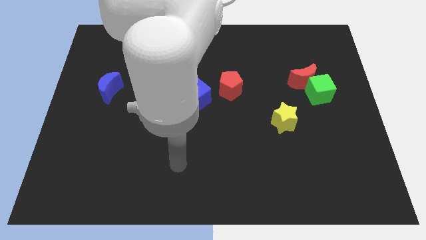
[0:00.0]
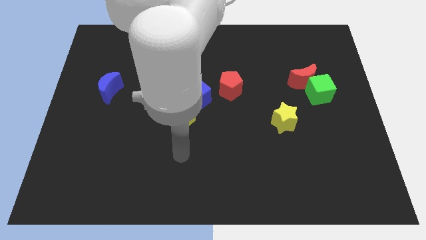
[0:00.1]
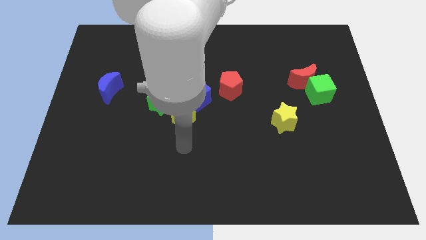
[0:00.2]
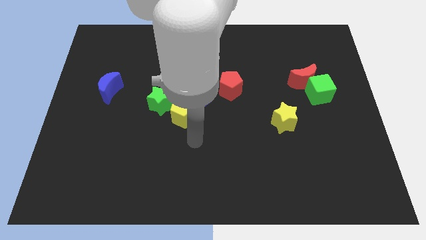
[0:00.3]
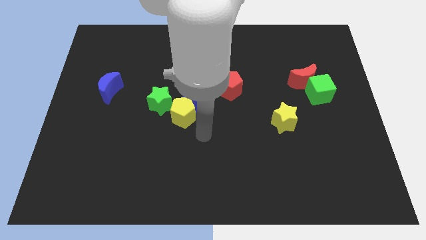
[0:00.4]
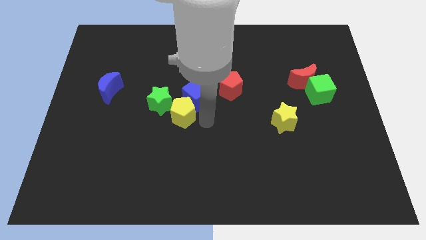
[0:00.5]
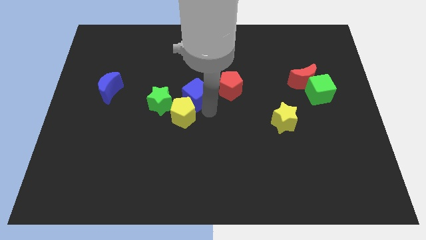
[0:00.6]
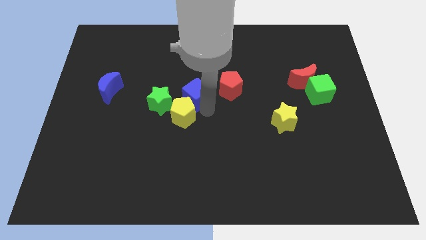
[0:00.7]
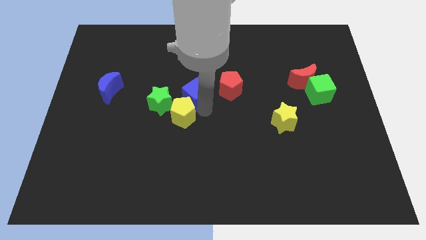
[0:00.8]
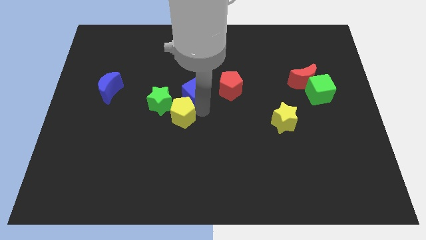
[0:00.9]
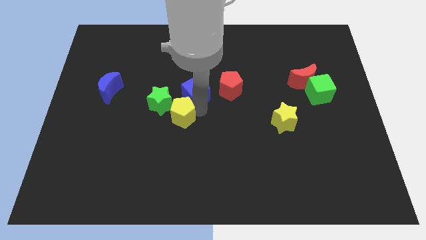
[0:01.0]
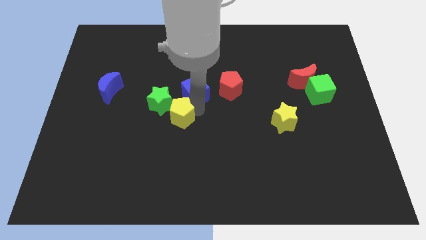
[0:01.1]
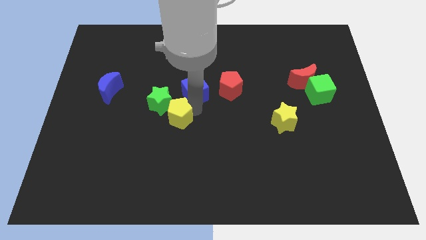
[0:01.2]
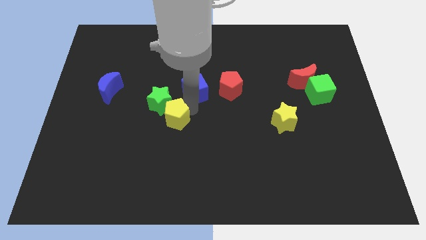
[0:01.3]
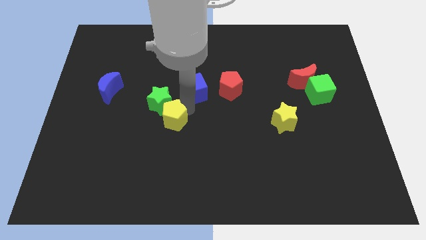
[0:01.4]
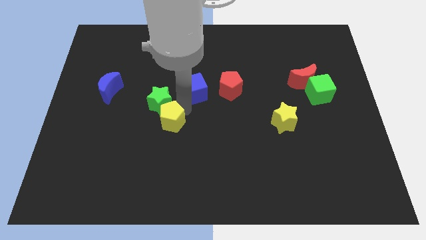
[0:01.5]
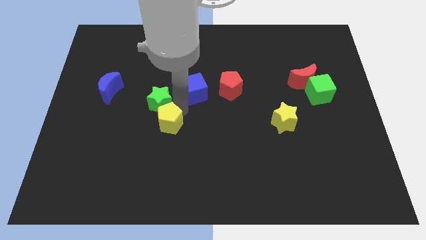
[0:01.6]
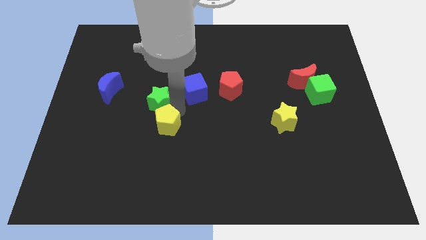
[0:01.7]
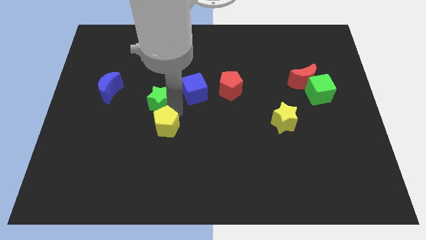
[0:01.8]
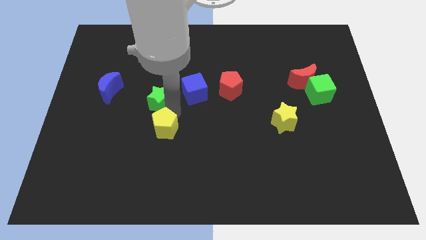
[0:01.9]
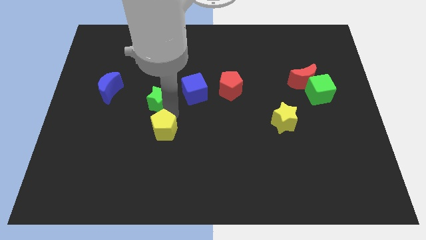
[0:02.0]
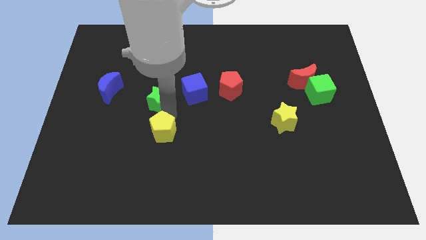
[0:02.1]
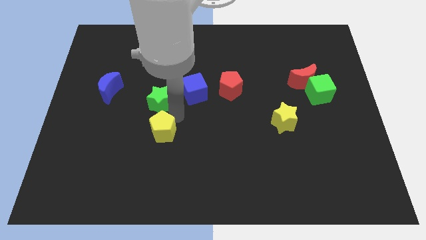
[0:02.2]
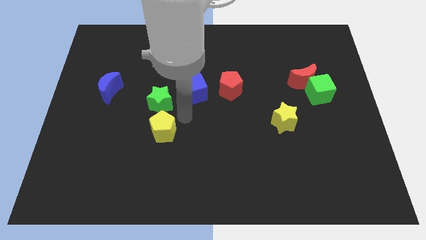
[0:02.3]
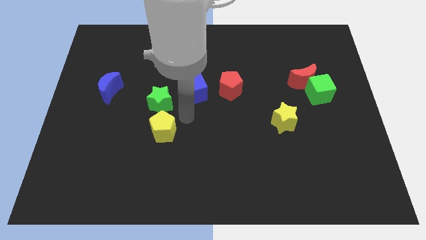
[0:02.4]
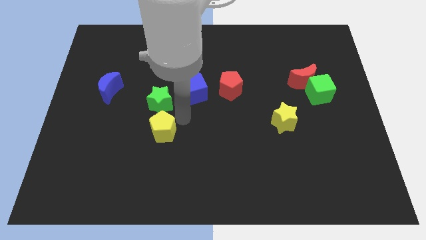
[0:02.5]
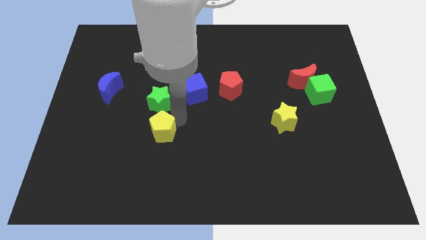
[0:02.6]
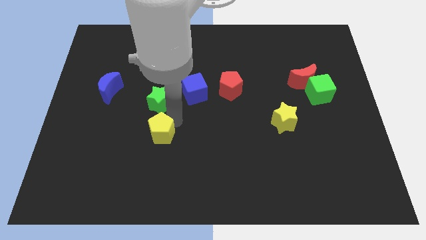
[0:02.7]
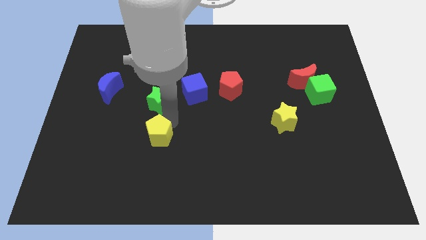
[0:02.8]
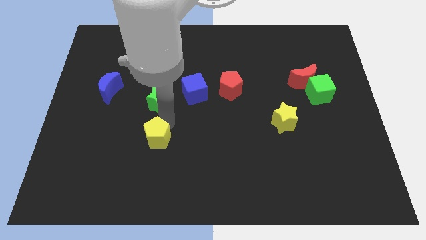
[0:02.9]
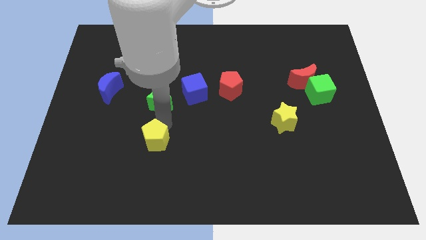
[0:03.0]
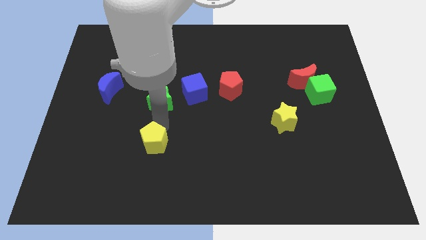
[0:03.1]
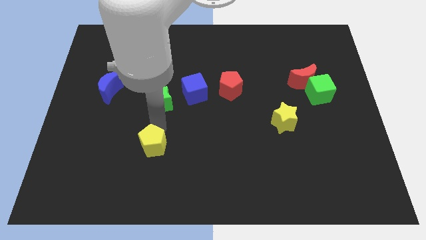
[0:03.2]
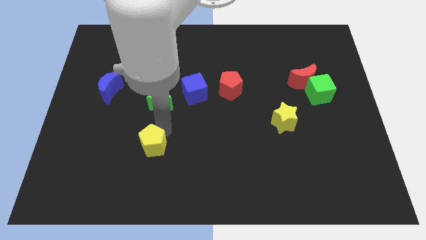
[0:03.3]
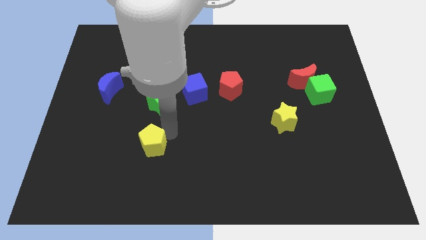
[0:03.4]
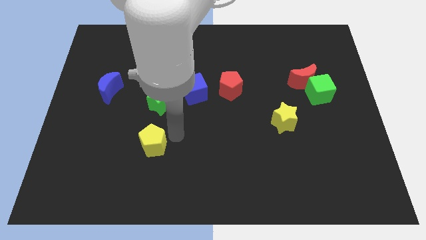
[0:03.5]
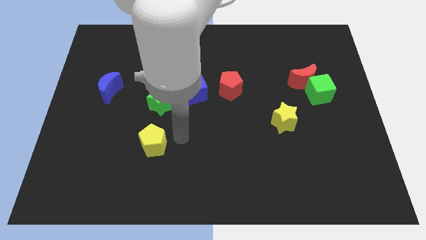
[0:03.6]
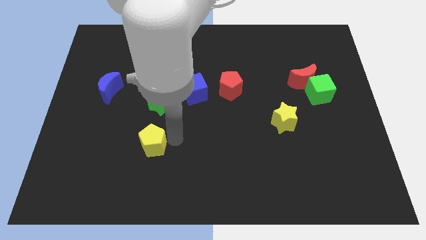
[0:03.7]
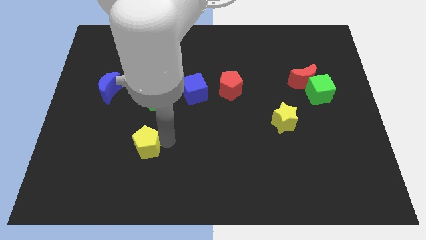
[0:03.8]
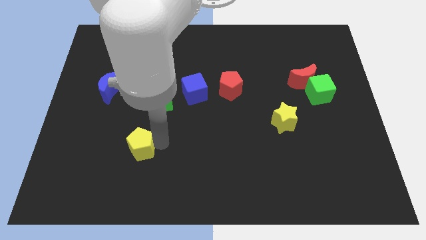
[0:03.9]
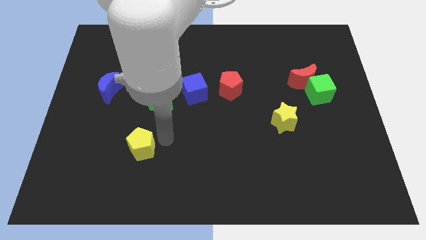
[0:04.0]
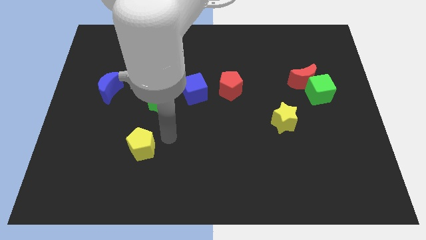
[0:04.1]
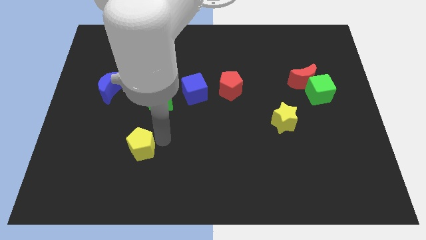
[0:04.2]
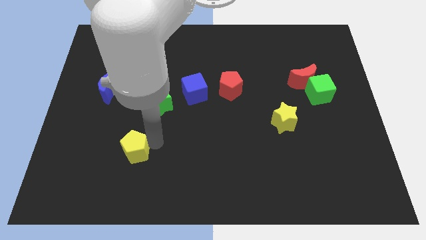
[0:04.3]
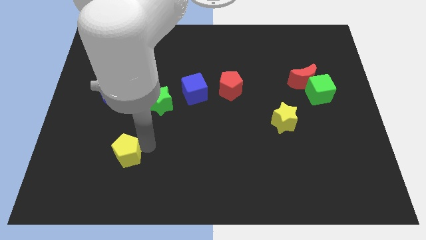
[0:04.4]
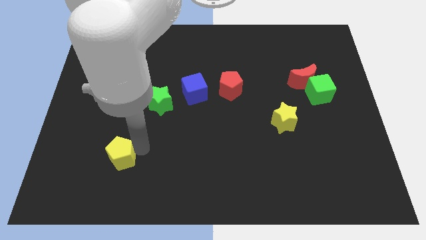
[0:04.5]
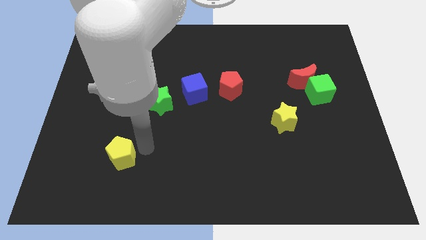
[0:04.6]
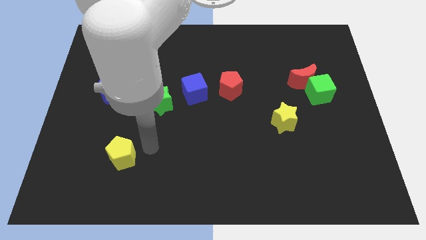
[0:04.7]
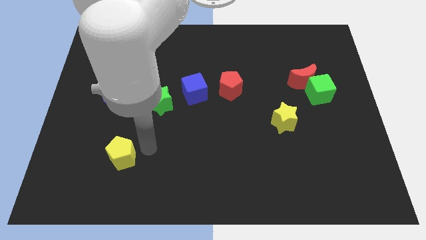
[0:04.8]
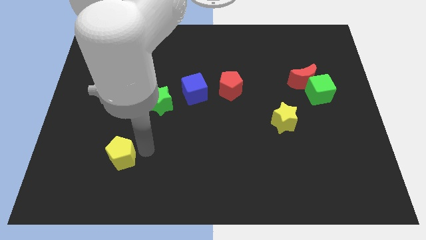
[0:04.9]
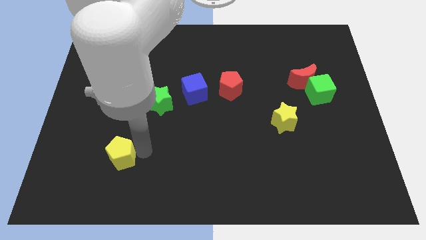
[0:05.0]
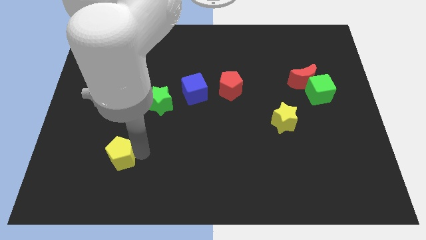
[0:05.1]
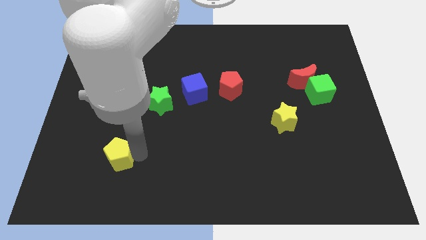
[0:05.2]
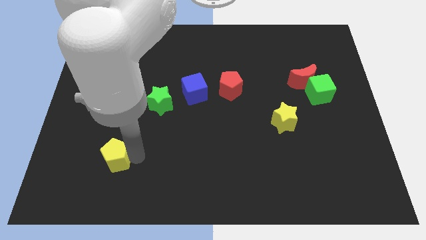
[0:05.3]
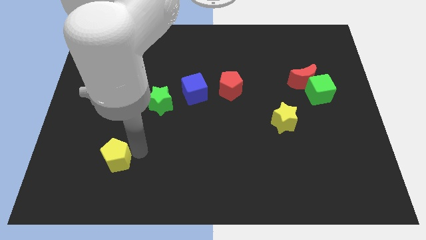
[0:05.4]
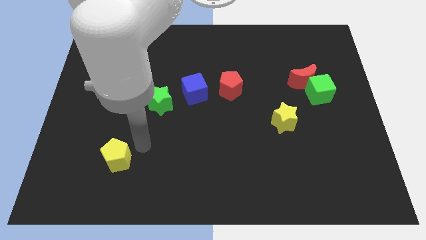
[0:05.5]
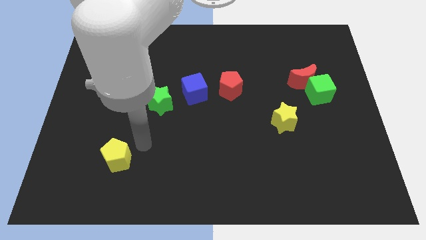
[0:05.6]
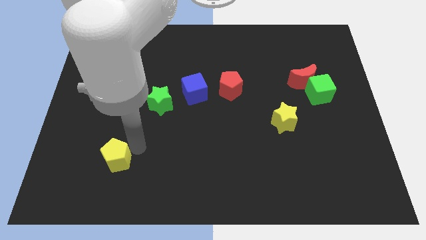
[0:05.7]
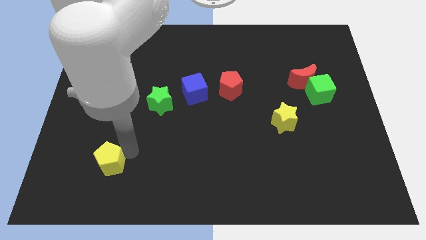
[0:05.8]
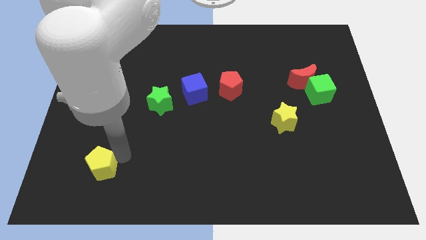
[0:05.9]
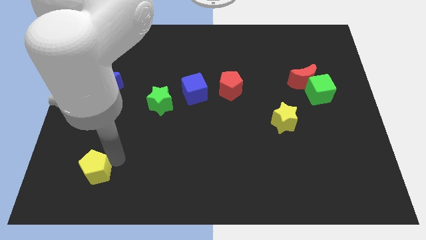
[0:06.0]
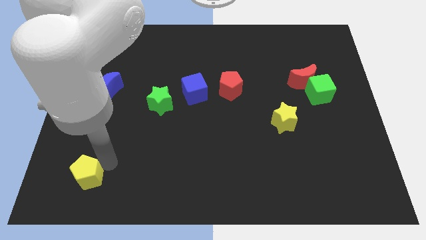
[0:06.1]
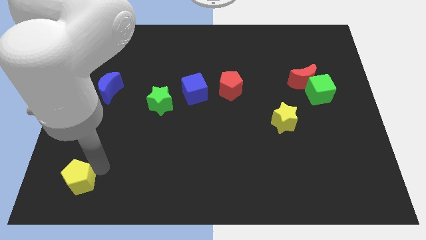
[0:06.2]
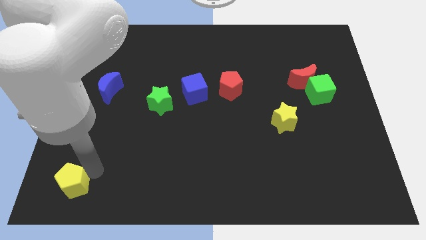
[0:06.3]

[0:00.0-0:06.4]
move the yellow pentagon to the lower left corner
